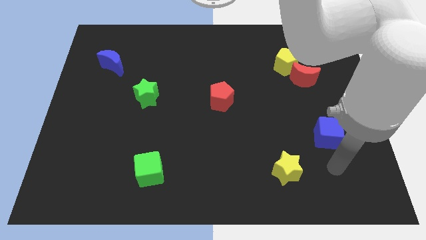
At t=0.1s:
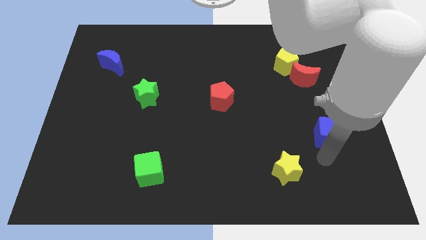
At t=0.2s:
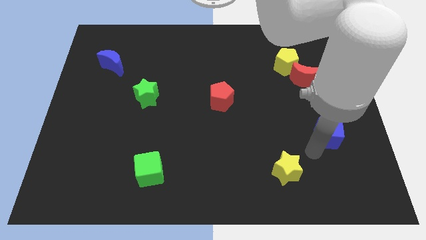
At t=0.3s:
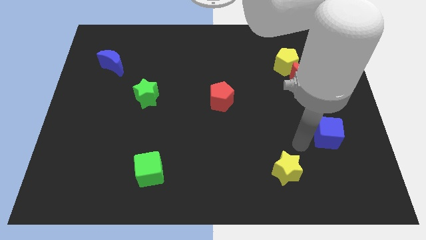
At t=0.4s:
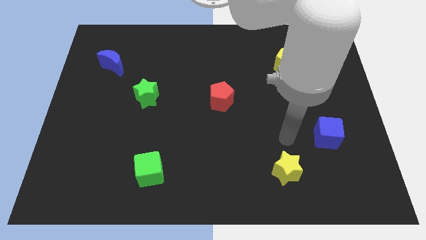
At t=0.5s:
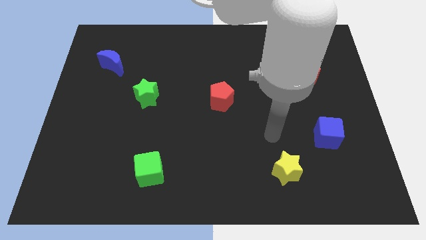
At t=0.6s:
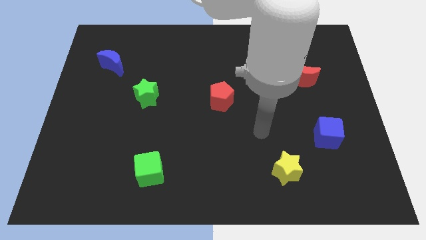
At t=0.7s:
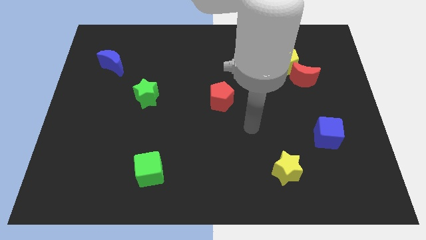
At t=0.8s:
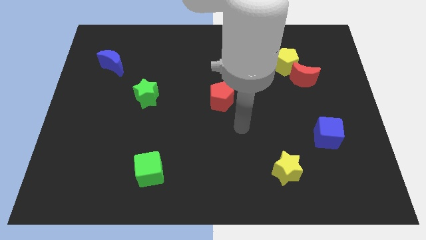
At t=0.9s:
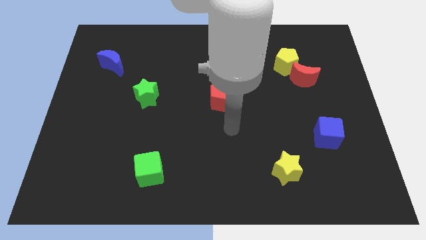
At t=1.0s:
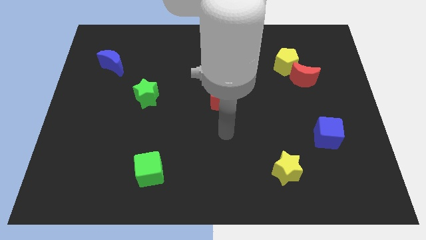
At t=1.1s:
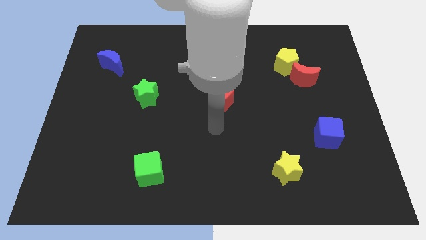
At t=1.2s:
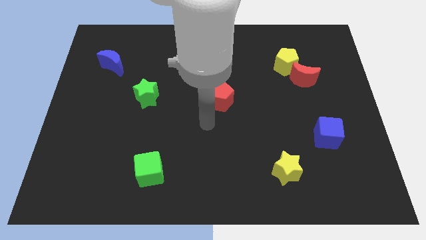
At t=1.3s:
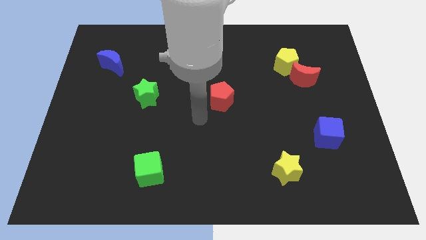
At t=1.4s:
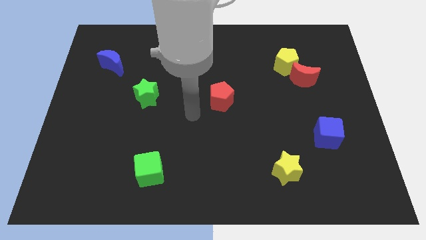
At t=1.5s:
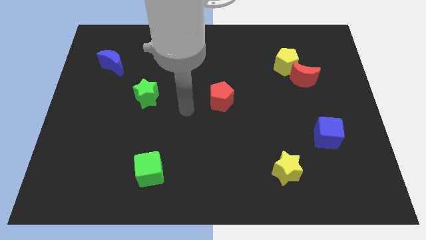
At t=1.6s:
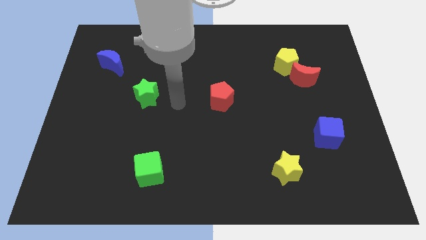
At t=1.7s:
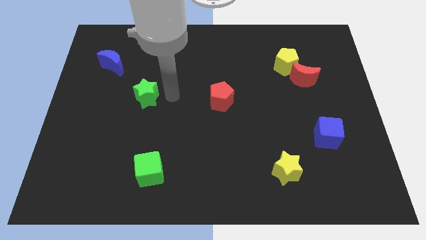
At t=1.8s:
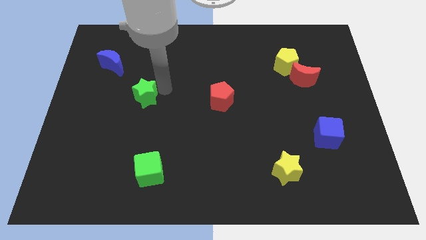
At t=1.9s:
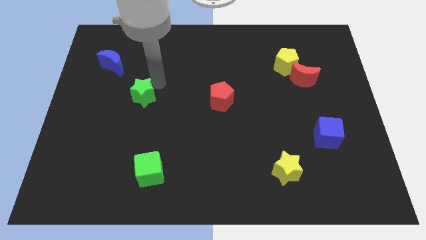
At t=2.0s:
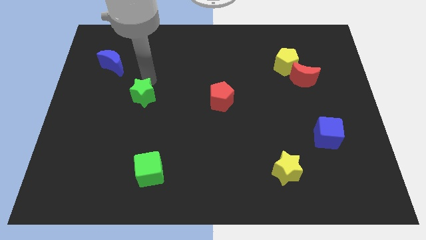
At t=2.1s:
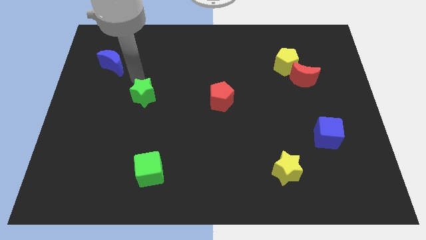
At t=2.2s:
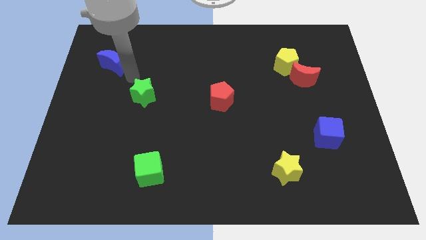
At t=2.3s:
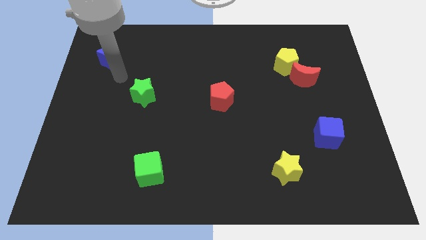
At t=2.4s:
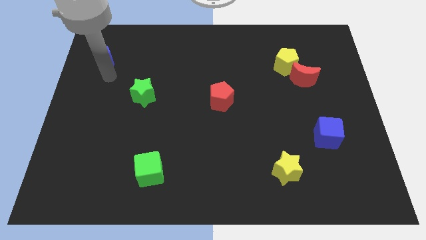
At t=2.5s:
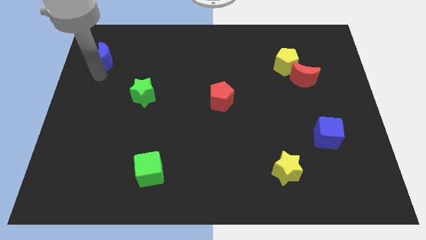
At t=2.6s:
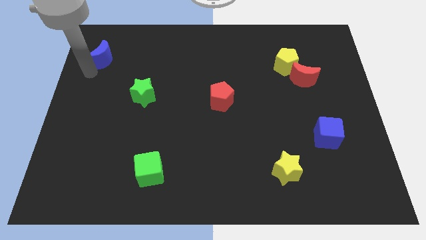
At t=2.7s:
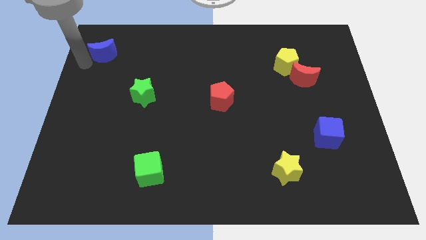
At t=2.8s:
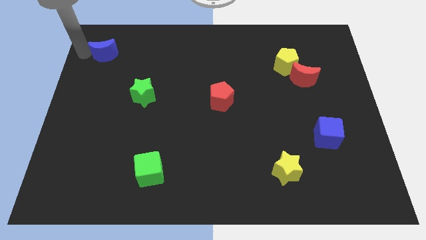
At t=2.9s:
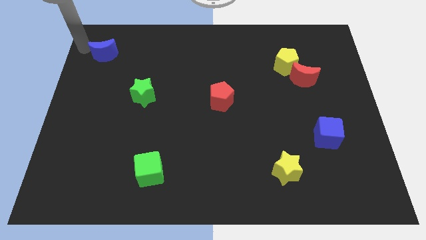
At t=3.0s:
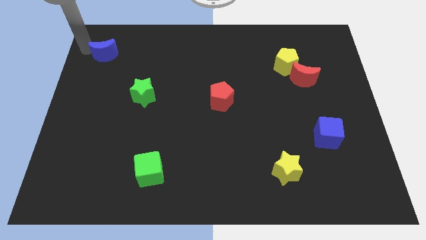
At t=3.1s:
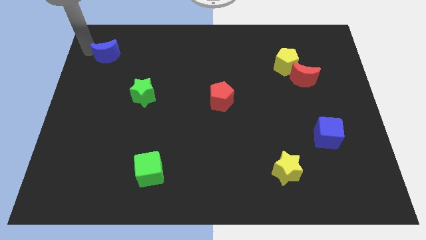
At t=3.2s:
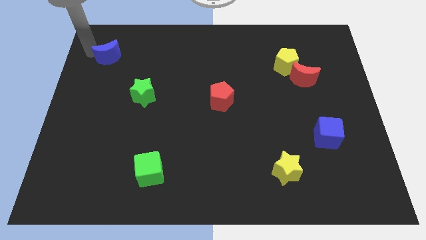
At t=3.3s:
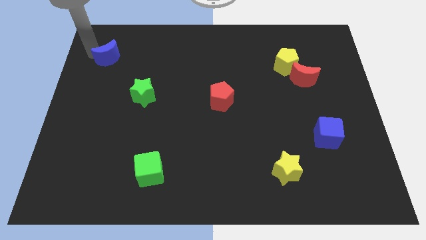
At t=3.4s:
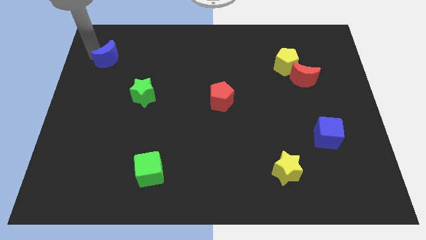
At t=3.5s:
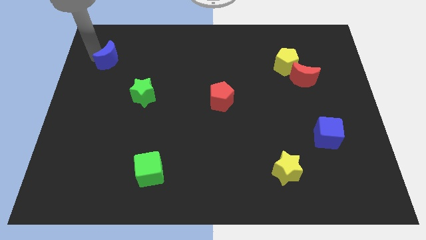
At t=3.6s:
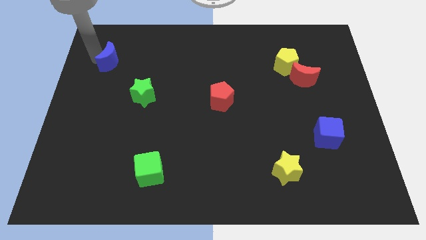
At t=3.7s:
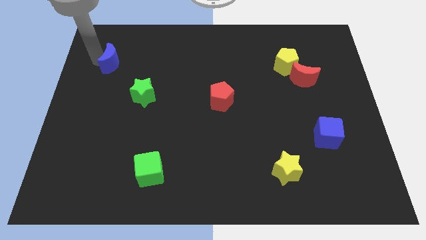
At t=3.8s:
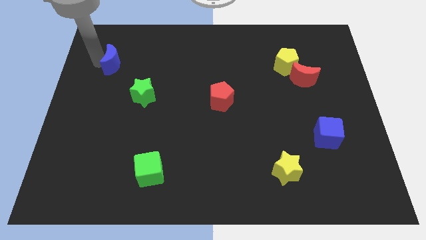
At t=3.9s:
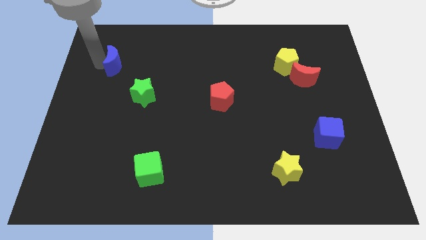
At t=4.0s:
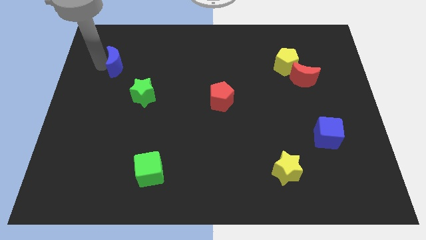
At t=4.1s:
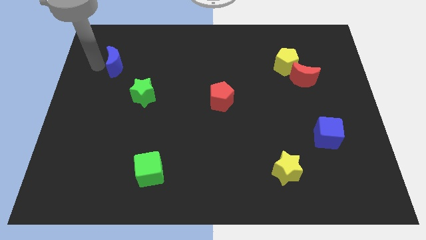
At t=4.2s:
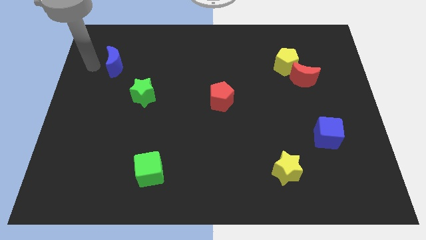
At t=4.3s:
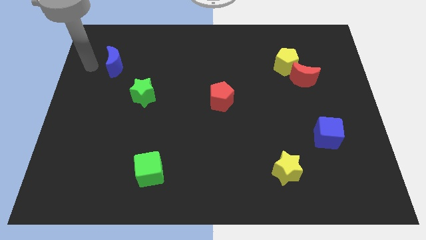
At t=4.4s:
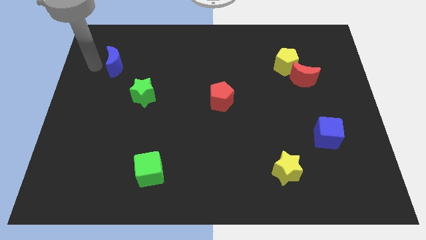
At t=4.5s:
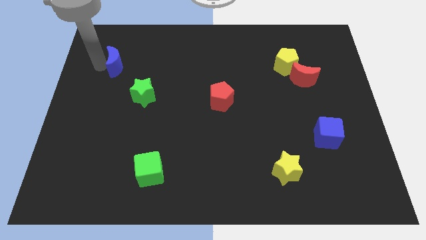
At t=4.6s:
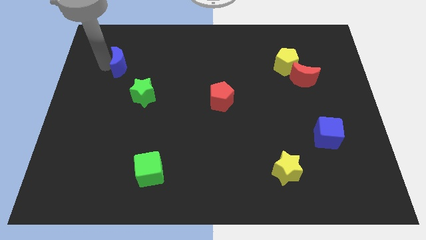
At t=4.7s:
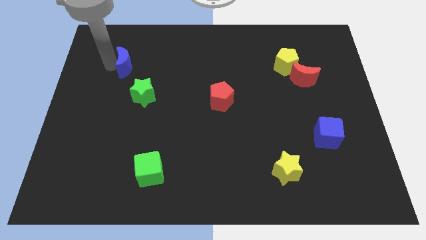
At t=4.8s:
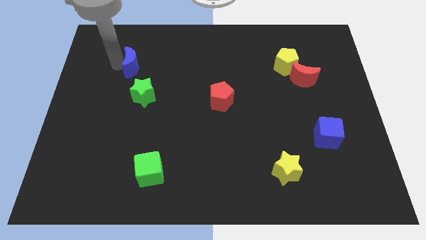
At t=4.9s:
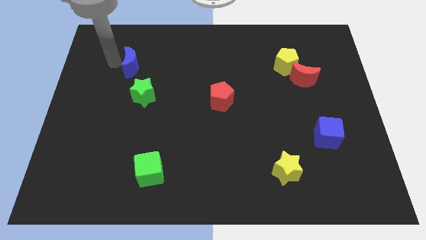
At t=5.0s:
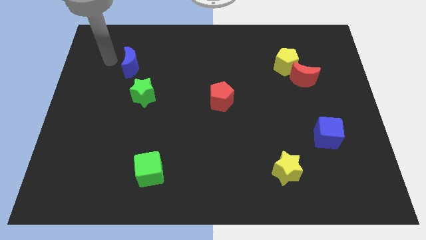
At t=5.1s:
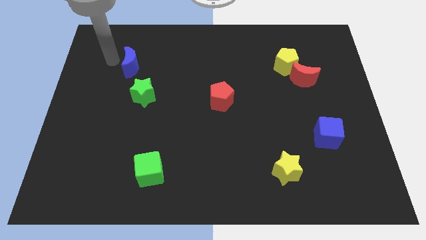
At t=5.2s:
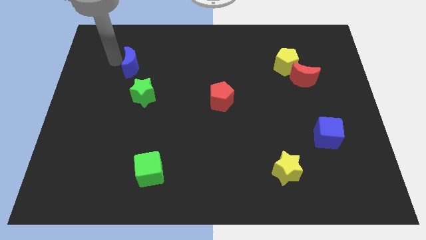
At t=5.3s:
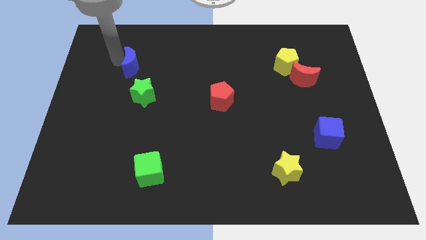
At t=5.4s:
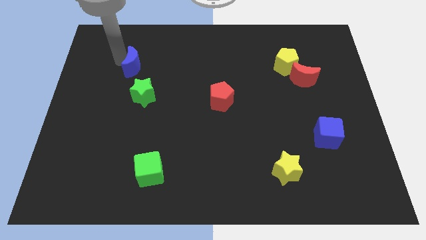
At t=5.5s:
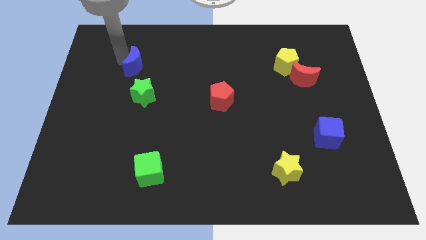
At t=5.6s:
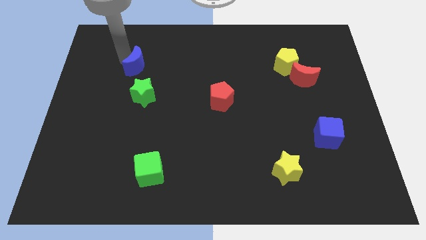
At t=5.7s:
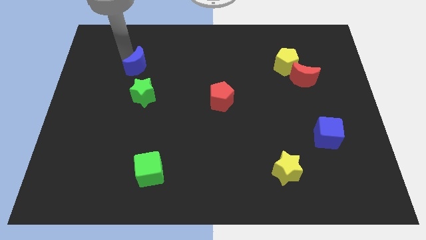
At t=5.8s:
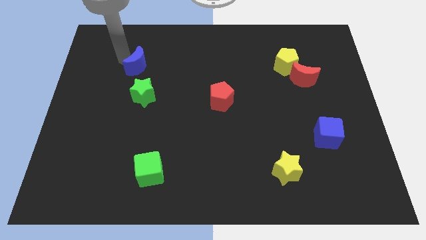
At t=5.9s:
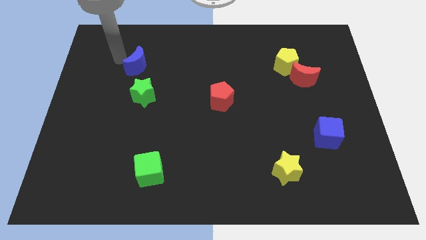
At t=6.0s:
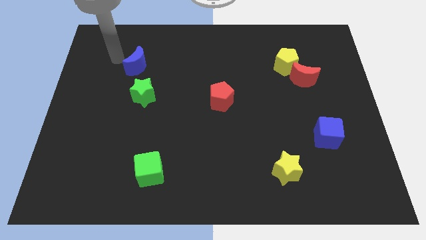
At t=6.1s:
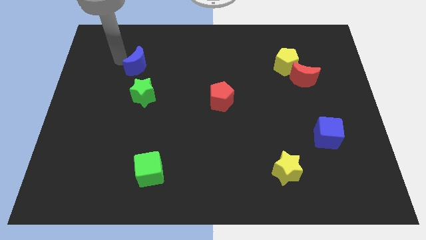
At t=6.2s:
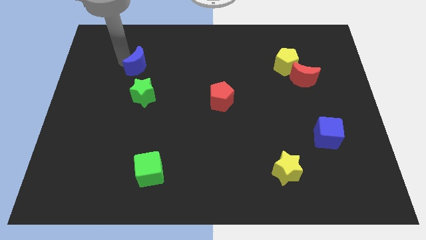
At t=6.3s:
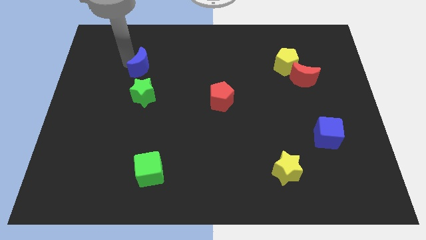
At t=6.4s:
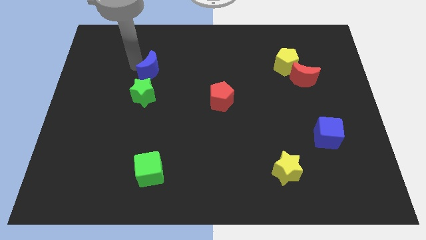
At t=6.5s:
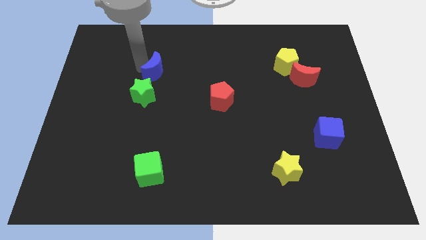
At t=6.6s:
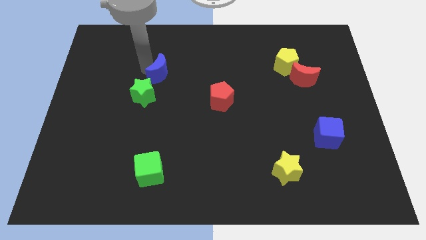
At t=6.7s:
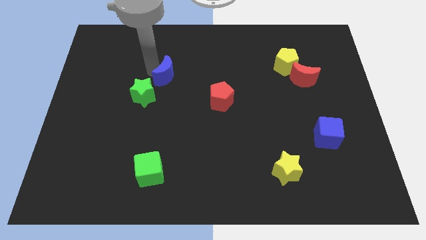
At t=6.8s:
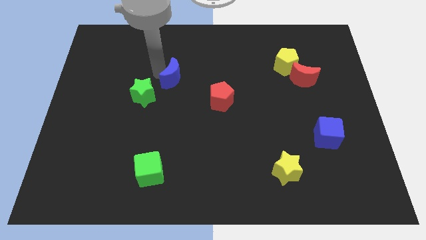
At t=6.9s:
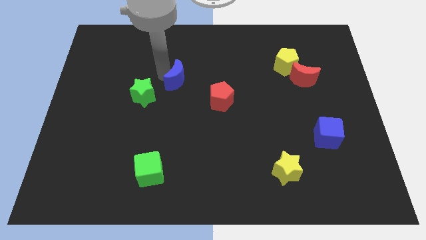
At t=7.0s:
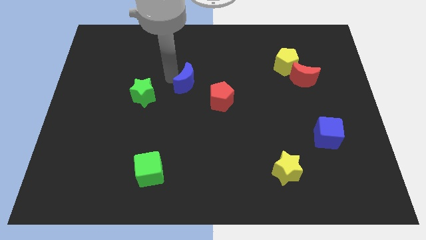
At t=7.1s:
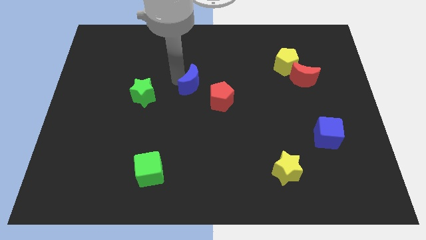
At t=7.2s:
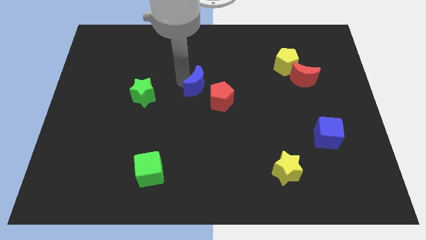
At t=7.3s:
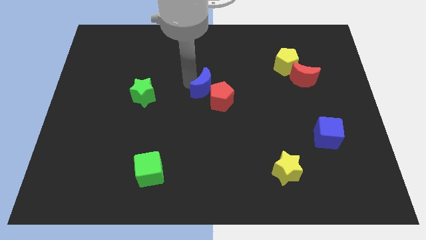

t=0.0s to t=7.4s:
move the blue moon to the red pentagon

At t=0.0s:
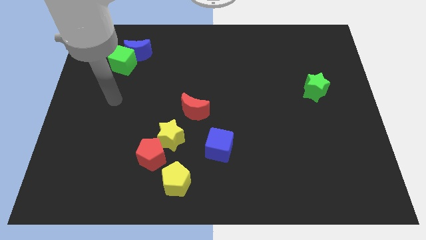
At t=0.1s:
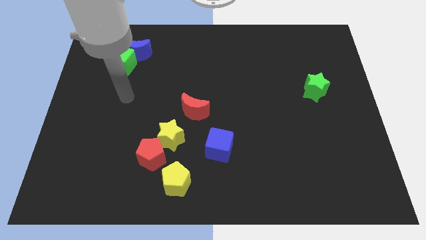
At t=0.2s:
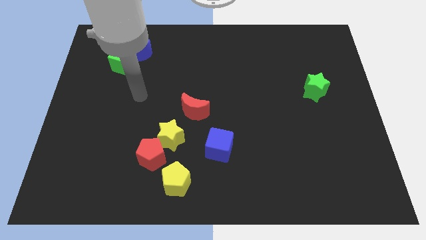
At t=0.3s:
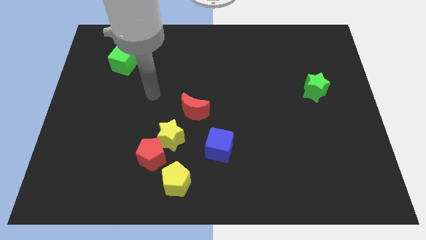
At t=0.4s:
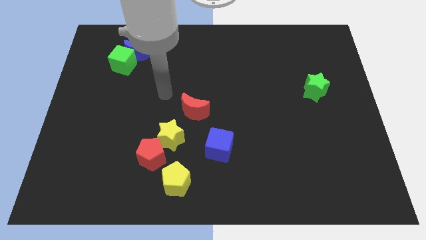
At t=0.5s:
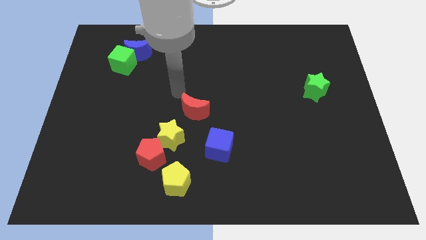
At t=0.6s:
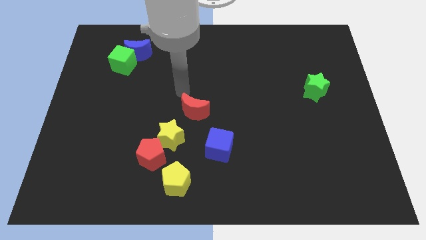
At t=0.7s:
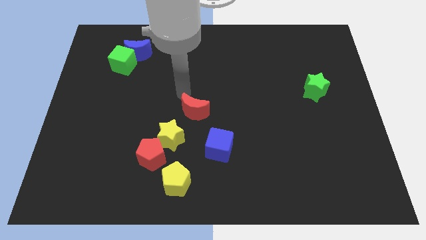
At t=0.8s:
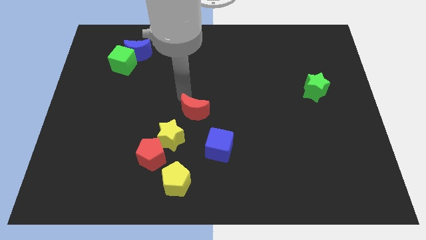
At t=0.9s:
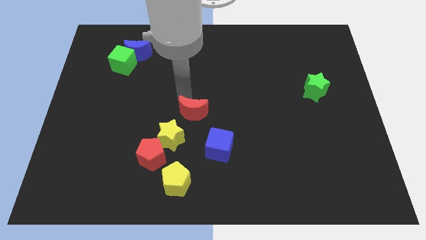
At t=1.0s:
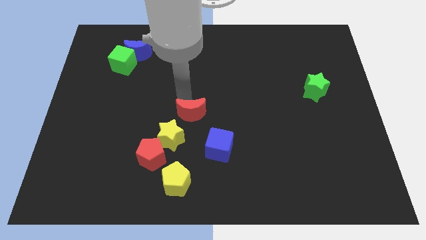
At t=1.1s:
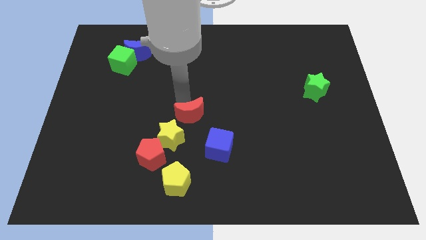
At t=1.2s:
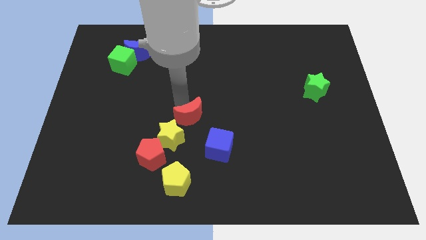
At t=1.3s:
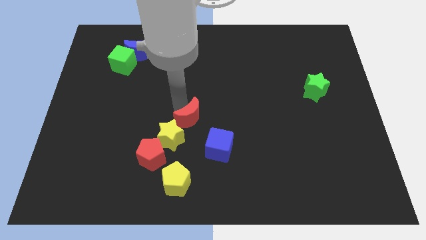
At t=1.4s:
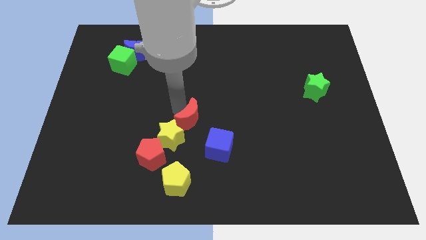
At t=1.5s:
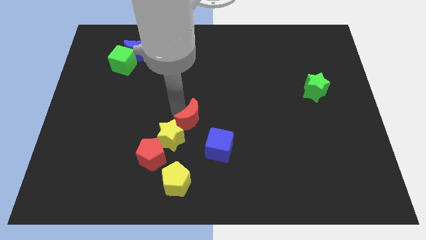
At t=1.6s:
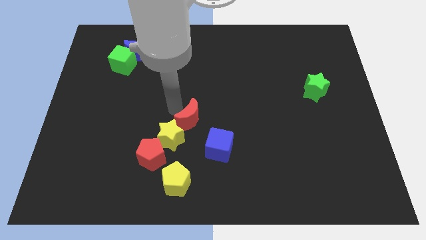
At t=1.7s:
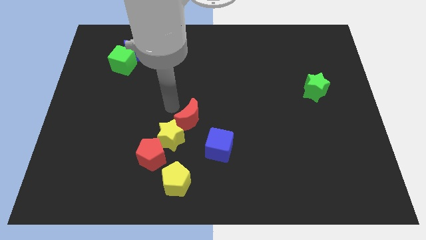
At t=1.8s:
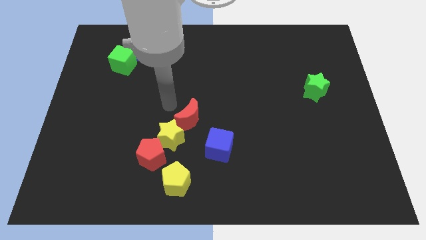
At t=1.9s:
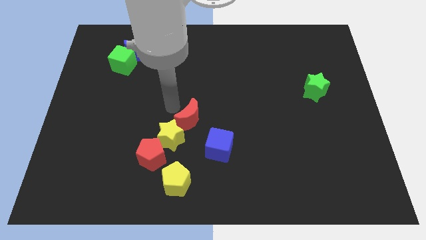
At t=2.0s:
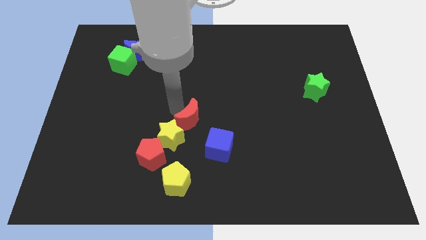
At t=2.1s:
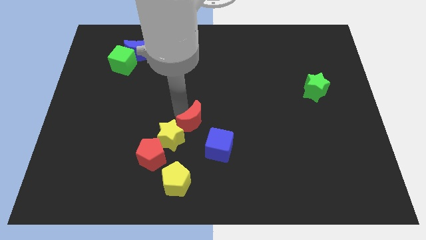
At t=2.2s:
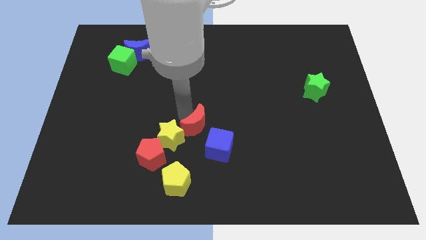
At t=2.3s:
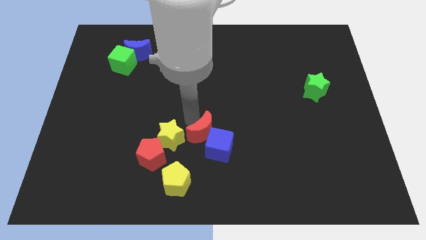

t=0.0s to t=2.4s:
push the red moon close to the blue cube
